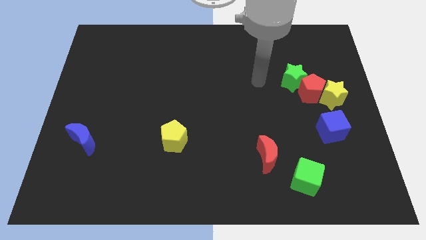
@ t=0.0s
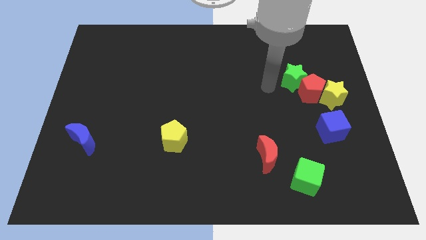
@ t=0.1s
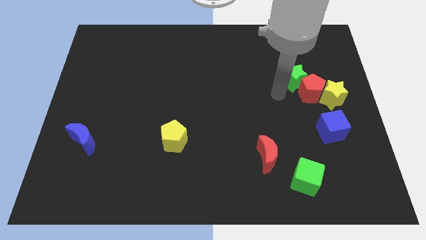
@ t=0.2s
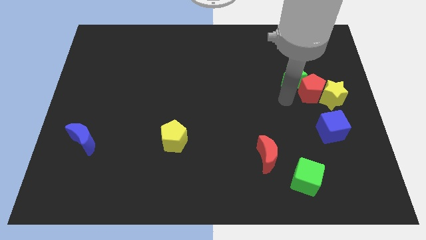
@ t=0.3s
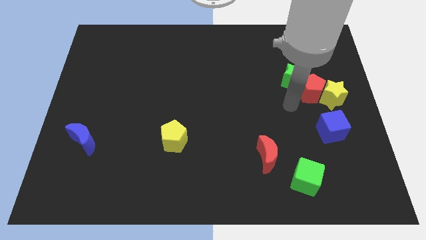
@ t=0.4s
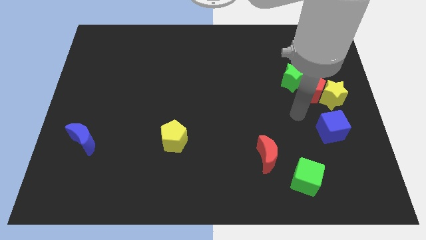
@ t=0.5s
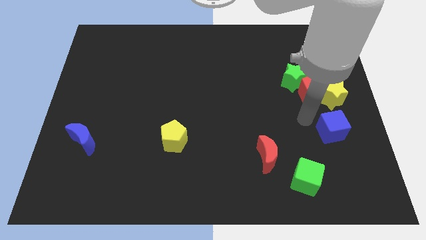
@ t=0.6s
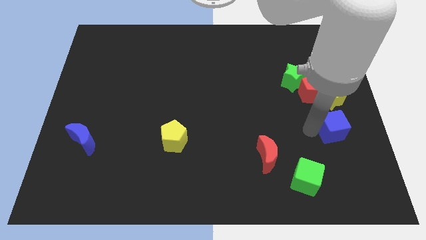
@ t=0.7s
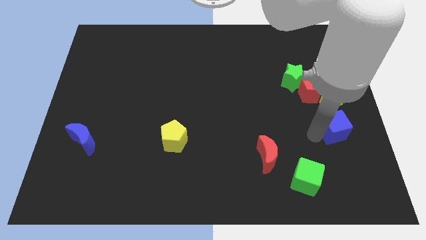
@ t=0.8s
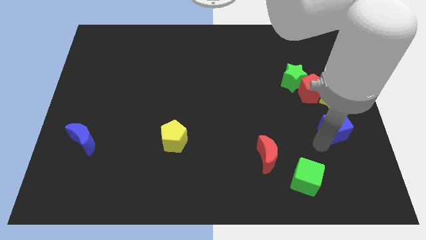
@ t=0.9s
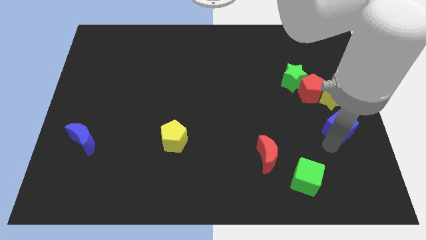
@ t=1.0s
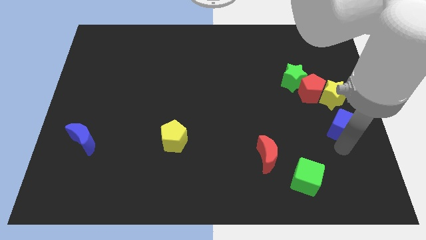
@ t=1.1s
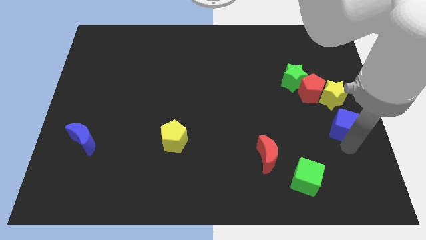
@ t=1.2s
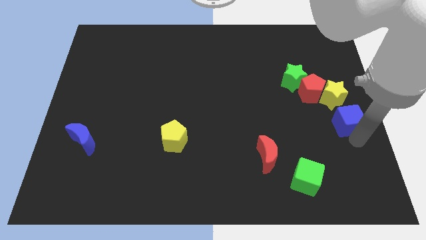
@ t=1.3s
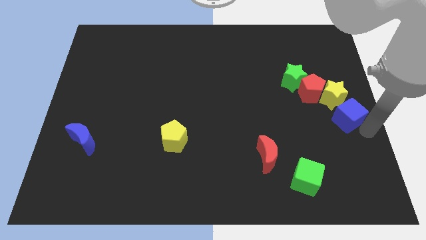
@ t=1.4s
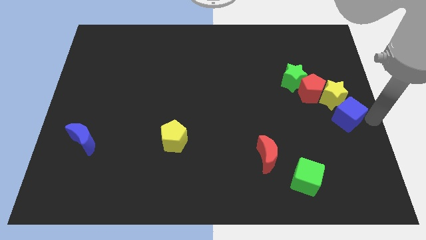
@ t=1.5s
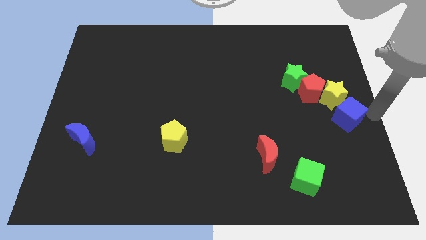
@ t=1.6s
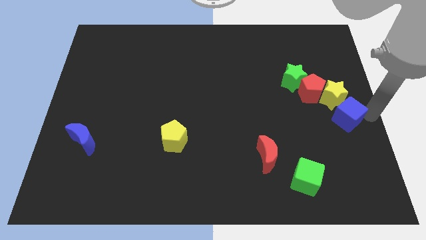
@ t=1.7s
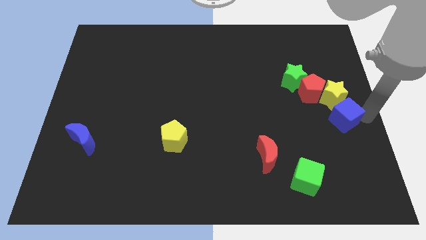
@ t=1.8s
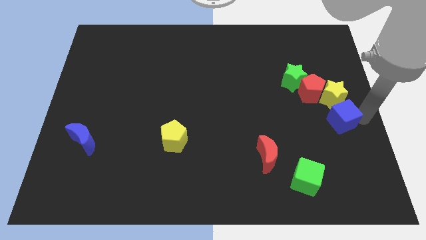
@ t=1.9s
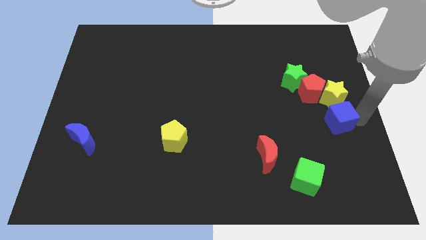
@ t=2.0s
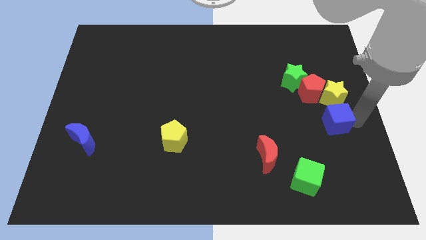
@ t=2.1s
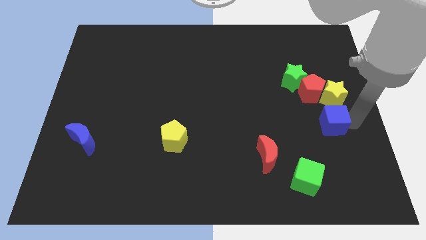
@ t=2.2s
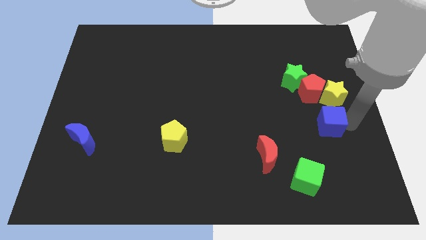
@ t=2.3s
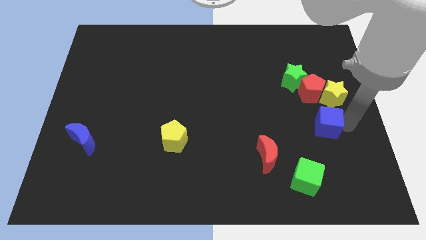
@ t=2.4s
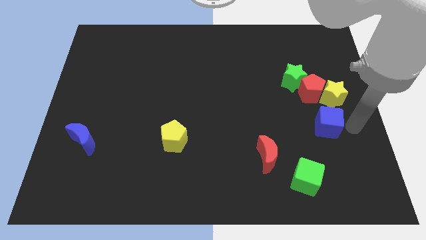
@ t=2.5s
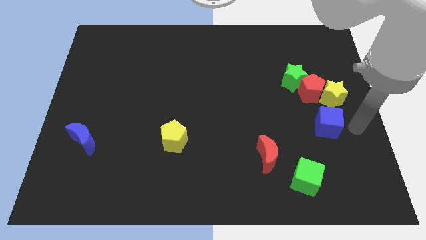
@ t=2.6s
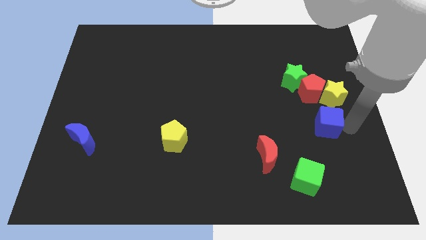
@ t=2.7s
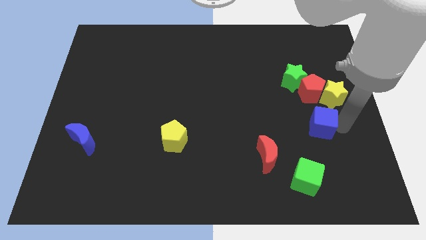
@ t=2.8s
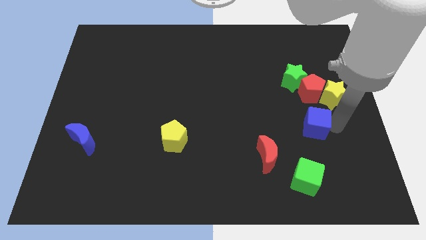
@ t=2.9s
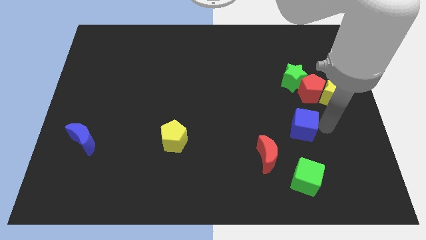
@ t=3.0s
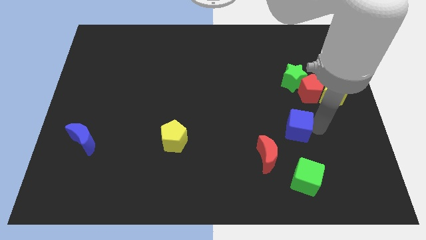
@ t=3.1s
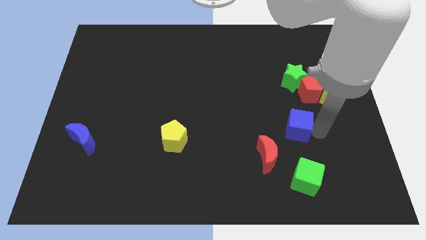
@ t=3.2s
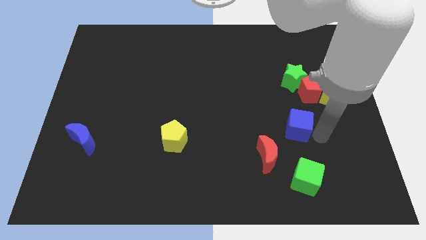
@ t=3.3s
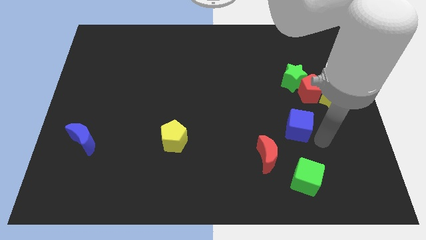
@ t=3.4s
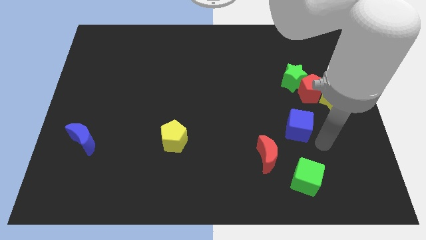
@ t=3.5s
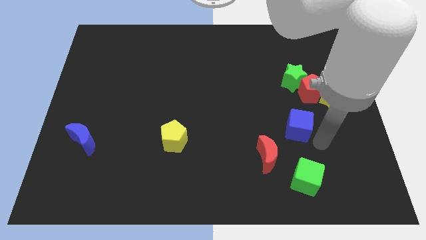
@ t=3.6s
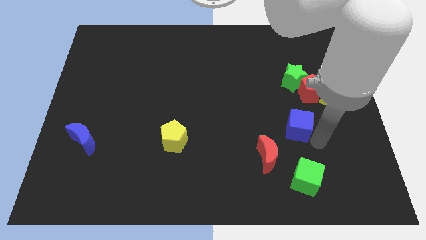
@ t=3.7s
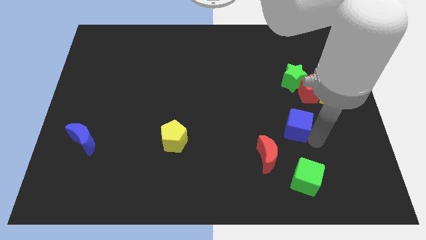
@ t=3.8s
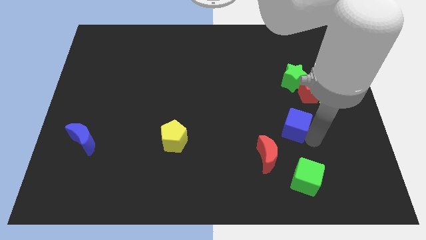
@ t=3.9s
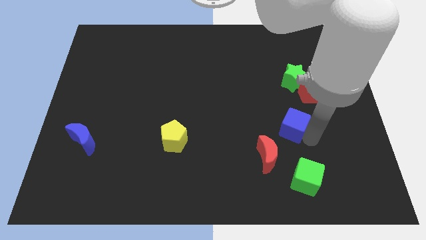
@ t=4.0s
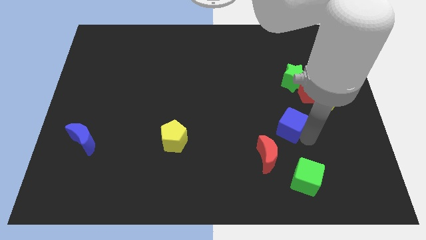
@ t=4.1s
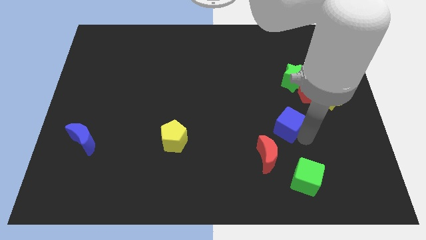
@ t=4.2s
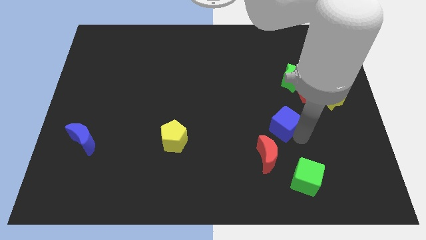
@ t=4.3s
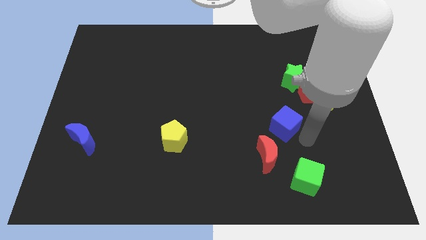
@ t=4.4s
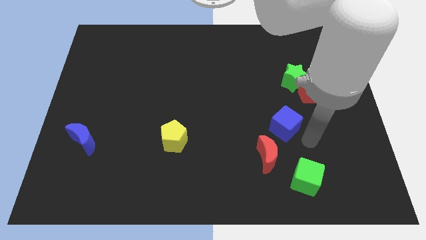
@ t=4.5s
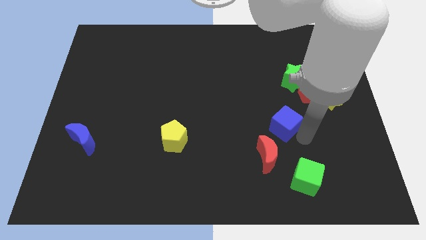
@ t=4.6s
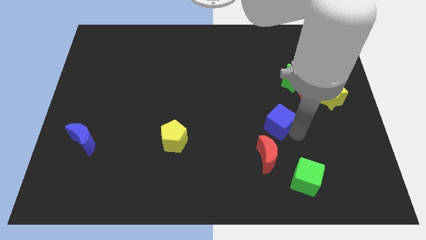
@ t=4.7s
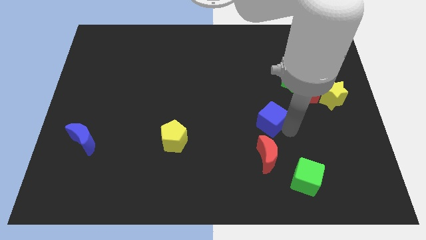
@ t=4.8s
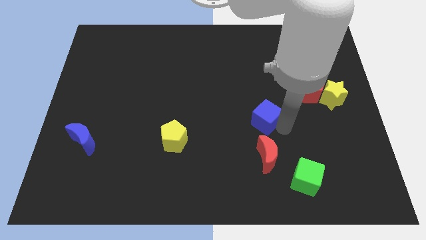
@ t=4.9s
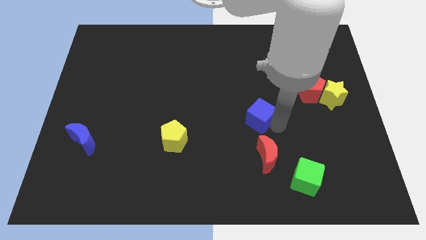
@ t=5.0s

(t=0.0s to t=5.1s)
push the blue cube to the center of the board

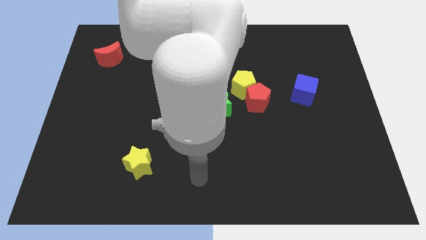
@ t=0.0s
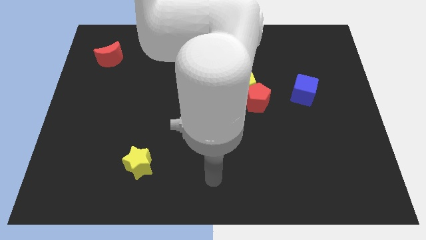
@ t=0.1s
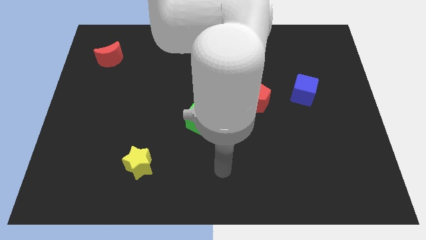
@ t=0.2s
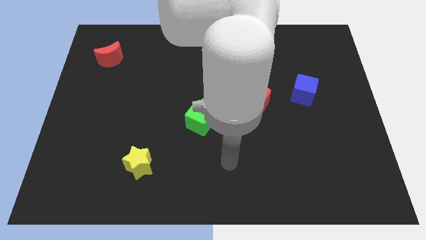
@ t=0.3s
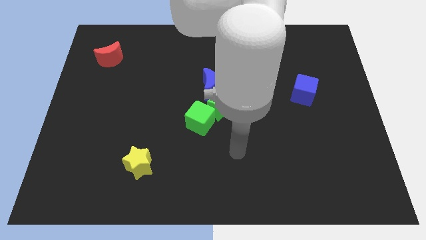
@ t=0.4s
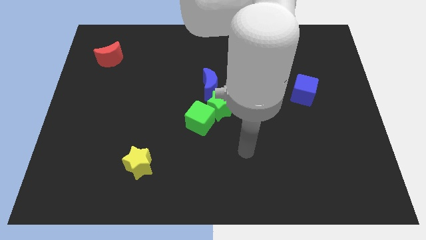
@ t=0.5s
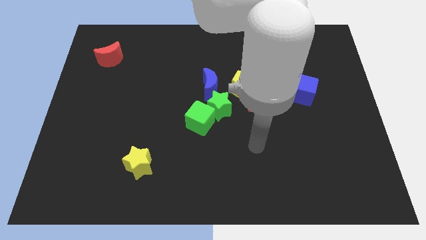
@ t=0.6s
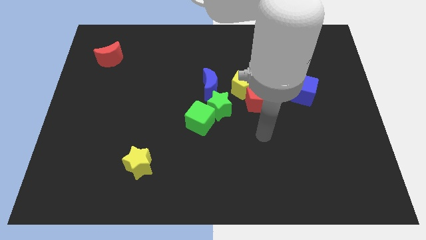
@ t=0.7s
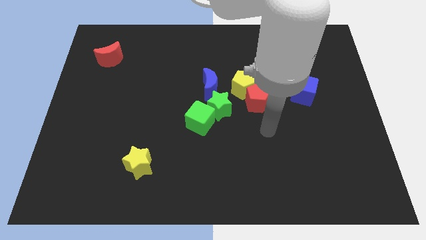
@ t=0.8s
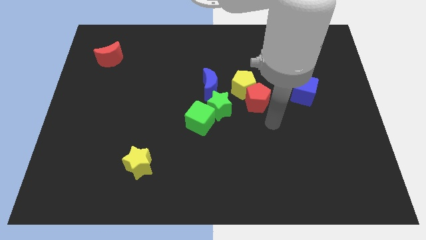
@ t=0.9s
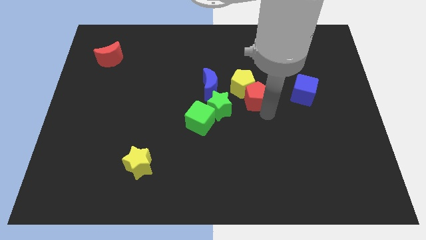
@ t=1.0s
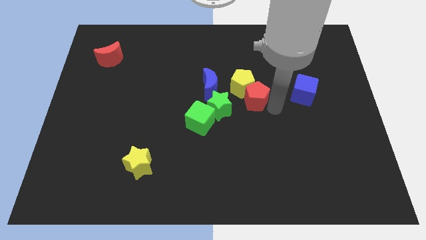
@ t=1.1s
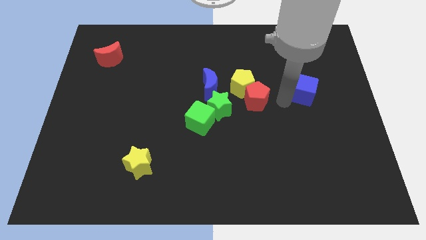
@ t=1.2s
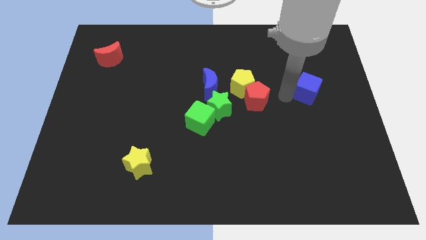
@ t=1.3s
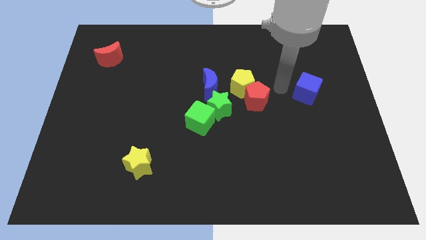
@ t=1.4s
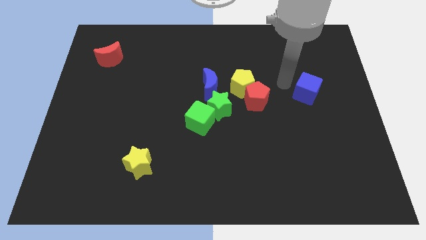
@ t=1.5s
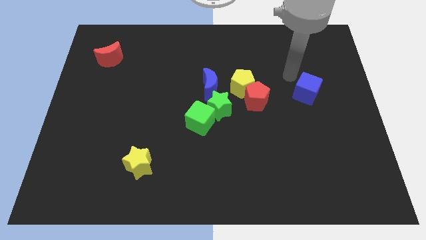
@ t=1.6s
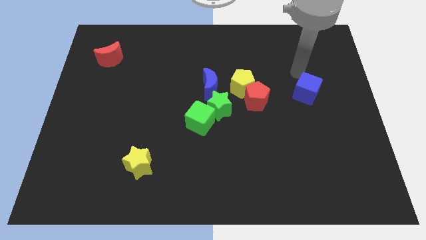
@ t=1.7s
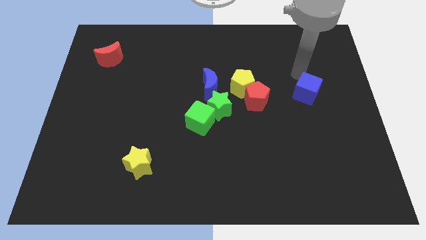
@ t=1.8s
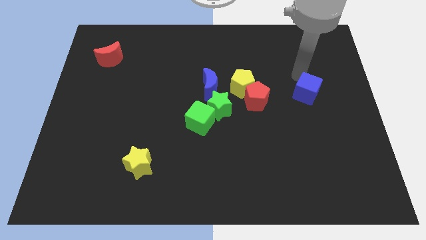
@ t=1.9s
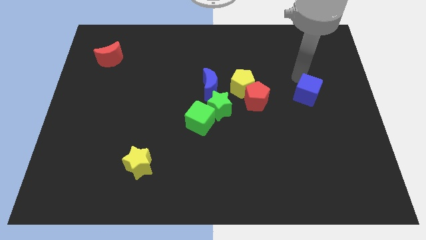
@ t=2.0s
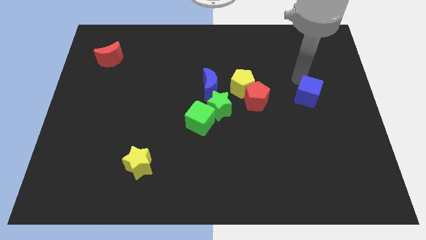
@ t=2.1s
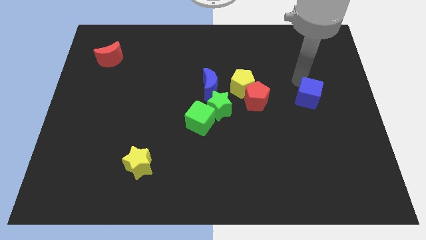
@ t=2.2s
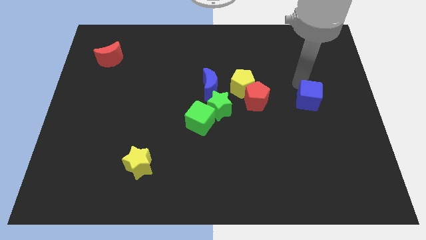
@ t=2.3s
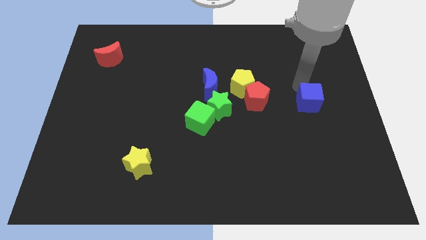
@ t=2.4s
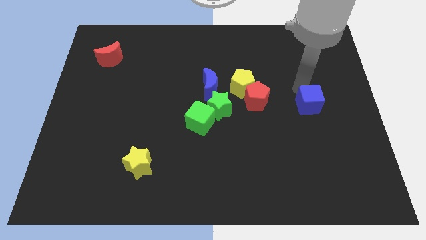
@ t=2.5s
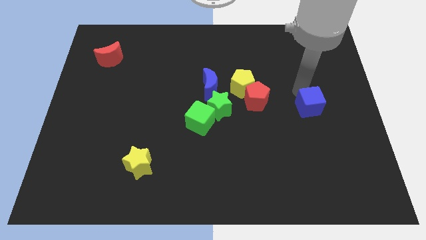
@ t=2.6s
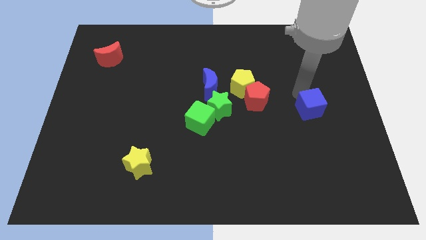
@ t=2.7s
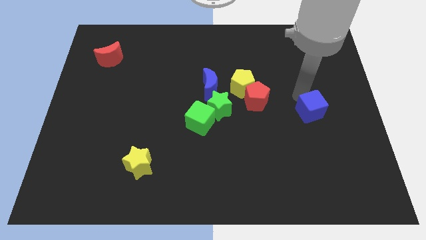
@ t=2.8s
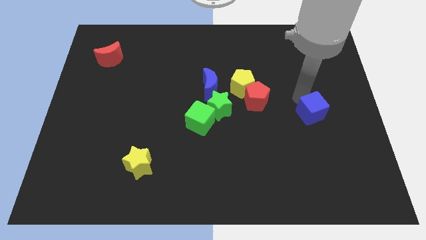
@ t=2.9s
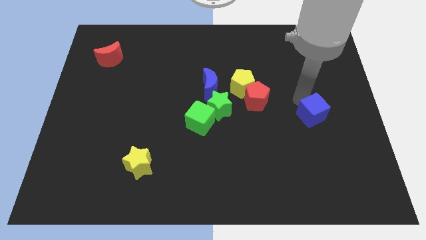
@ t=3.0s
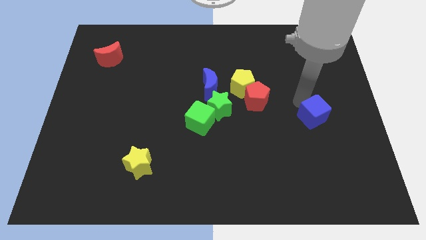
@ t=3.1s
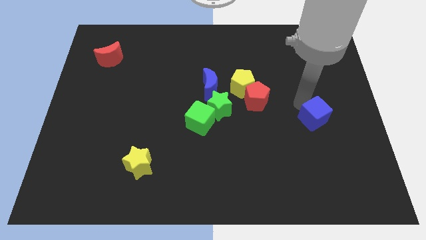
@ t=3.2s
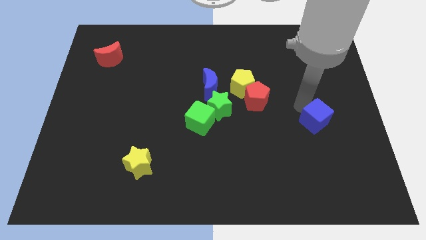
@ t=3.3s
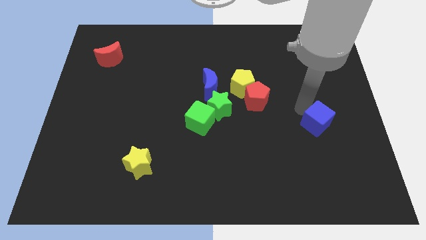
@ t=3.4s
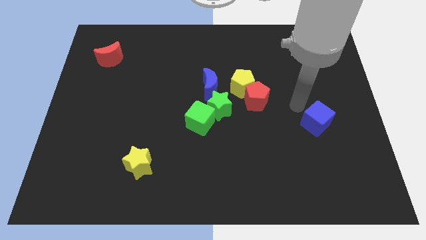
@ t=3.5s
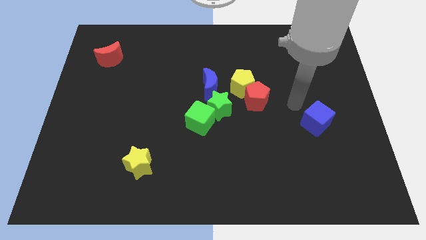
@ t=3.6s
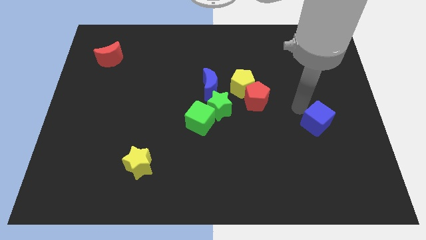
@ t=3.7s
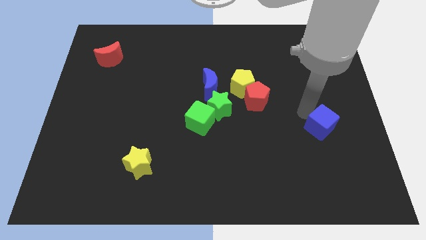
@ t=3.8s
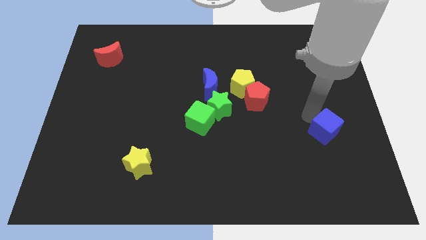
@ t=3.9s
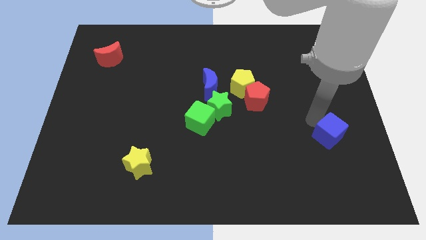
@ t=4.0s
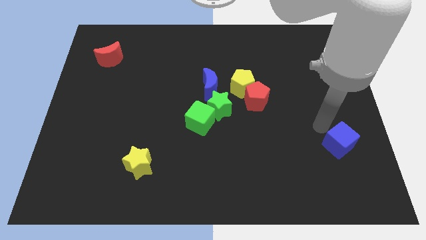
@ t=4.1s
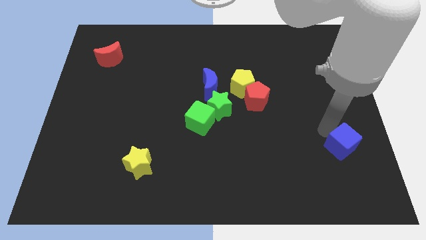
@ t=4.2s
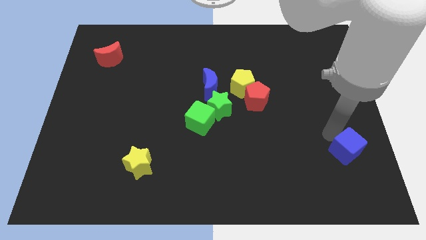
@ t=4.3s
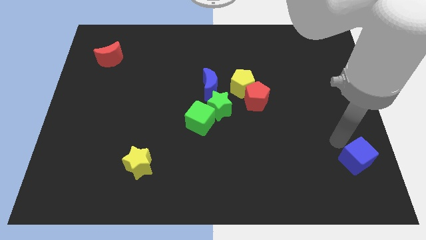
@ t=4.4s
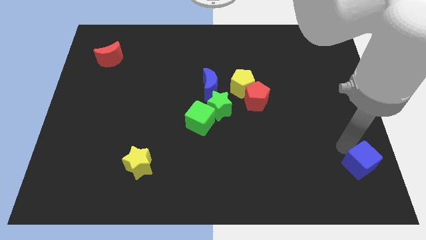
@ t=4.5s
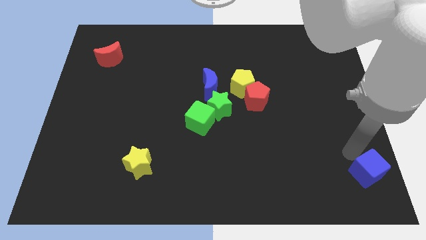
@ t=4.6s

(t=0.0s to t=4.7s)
push the blue cube to the bottom right corner
